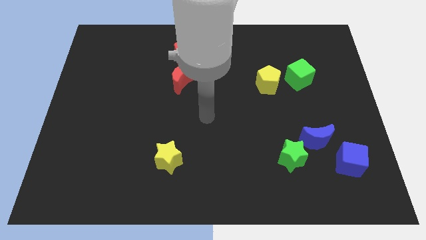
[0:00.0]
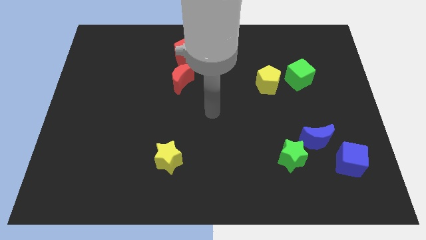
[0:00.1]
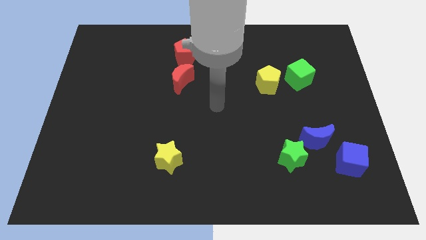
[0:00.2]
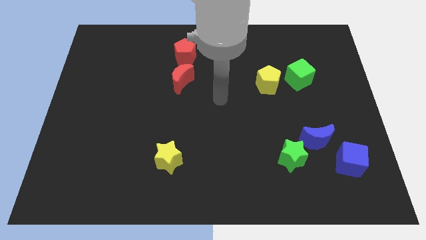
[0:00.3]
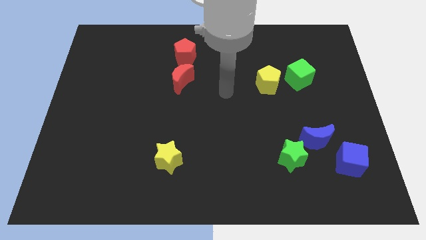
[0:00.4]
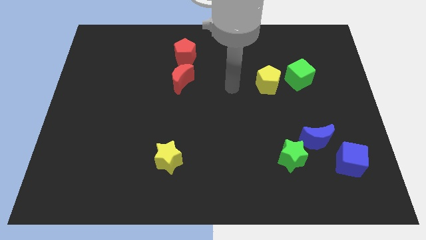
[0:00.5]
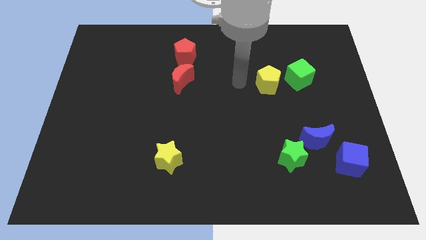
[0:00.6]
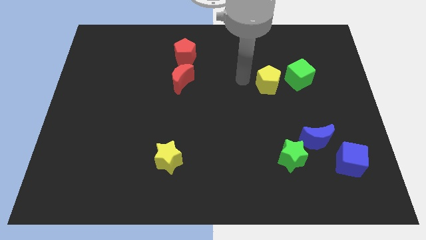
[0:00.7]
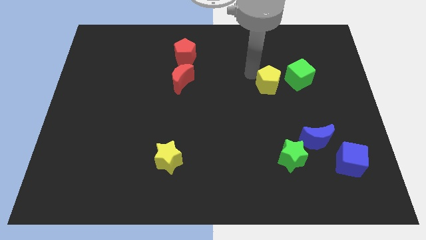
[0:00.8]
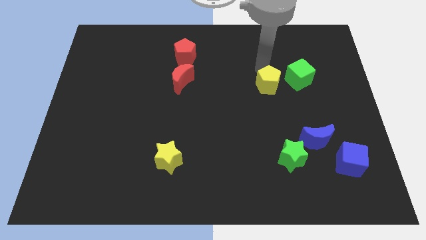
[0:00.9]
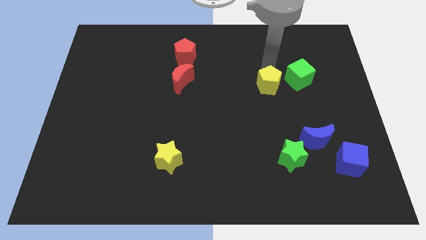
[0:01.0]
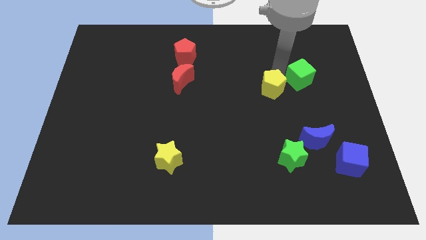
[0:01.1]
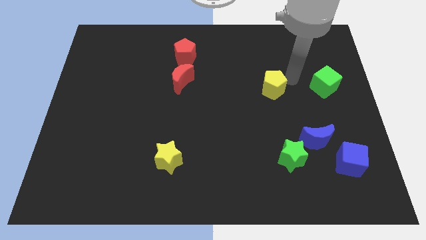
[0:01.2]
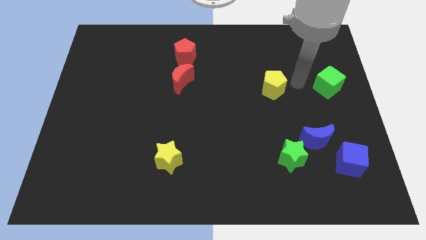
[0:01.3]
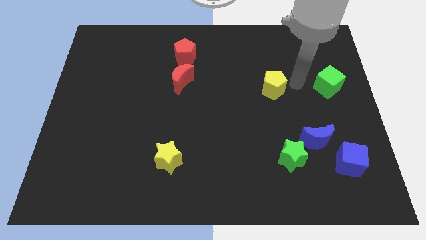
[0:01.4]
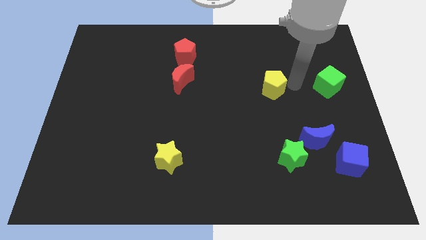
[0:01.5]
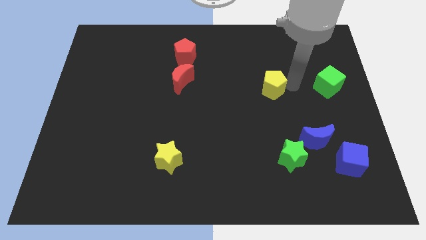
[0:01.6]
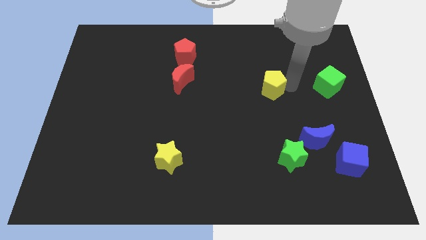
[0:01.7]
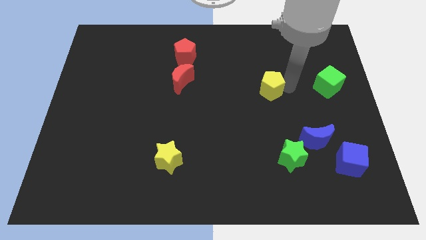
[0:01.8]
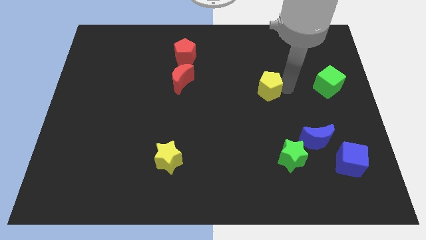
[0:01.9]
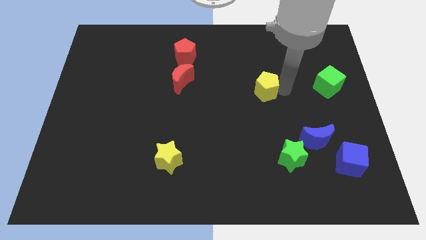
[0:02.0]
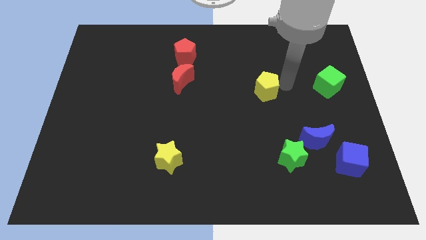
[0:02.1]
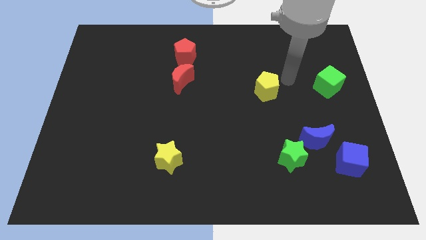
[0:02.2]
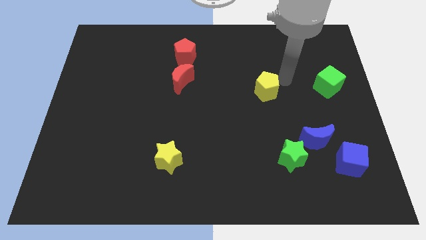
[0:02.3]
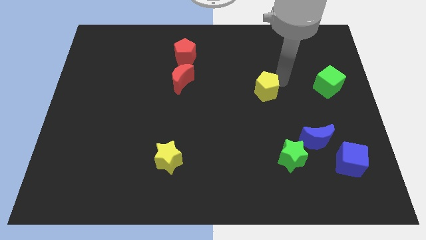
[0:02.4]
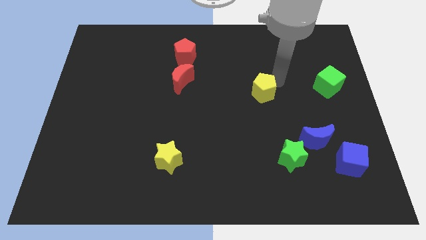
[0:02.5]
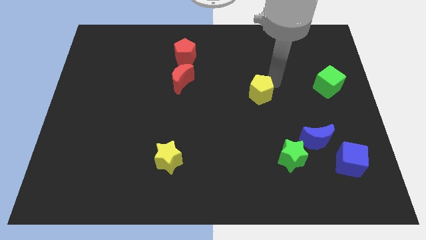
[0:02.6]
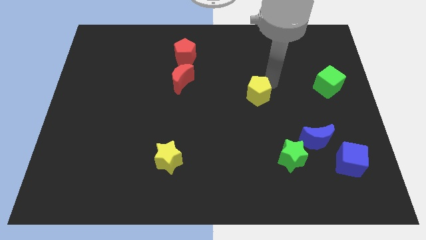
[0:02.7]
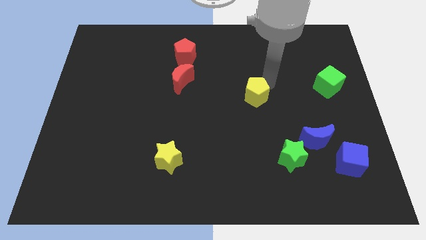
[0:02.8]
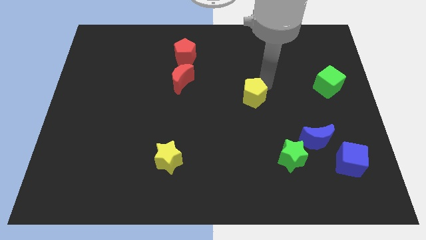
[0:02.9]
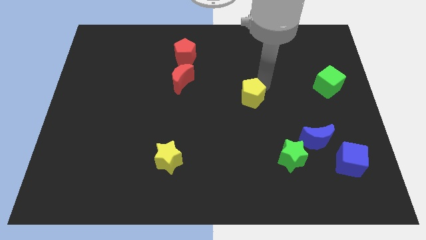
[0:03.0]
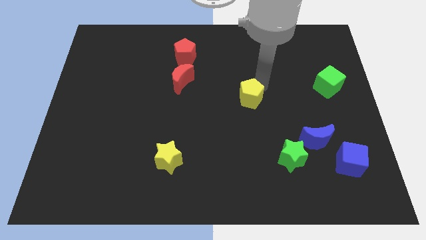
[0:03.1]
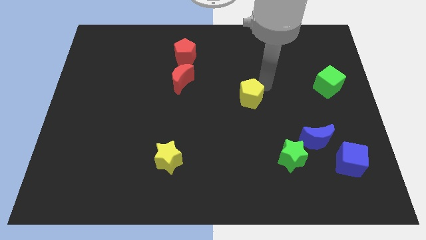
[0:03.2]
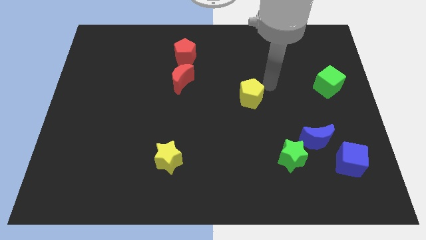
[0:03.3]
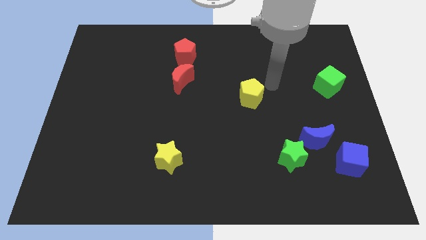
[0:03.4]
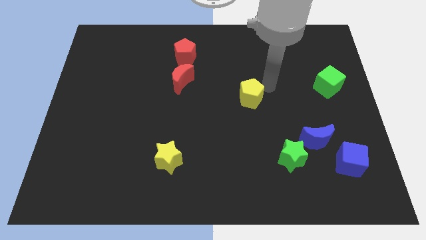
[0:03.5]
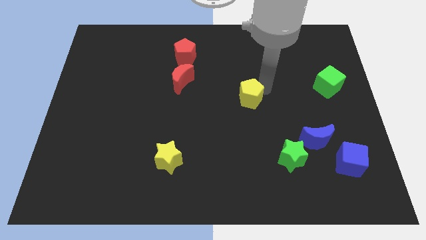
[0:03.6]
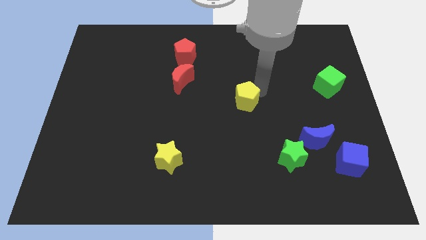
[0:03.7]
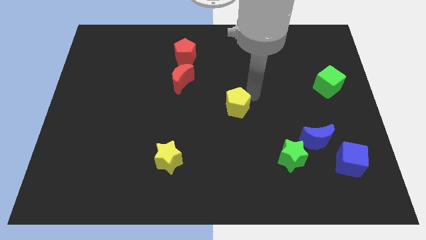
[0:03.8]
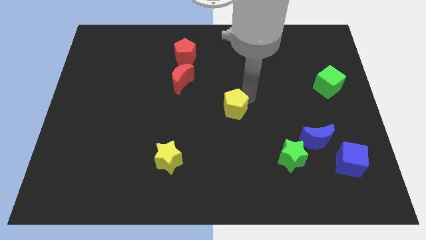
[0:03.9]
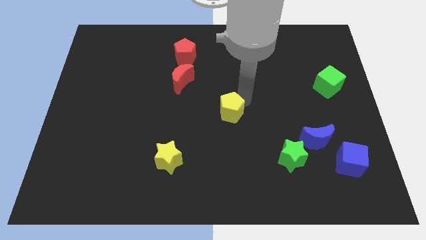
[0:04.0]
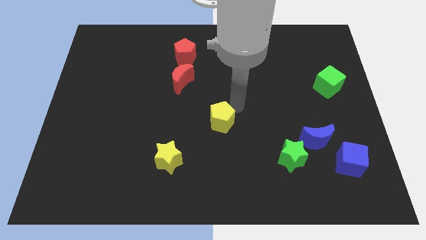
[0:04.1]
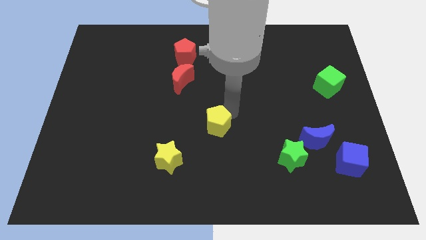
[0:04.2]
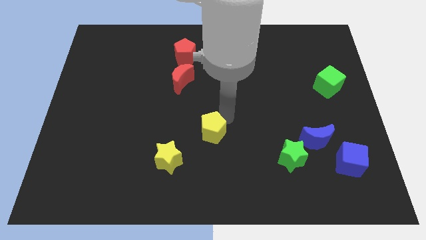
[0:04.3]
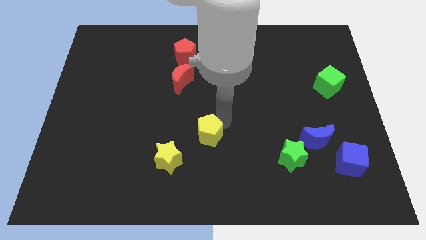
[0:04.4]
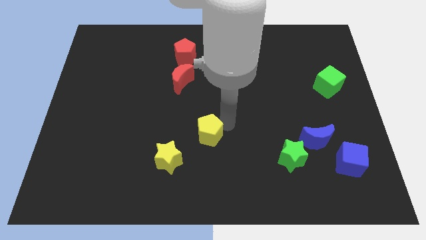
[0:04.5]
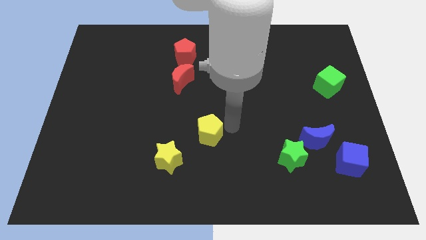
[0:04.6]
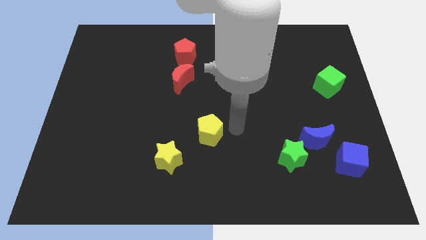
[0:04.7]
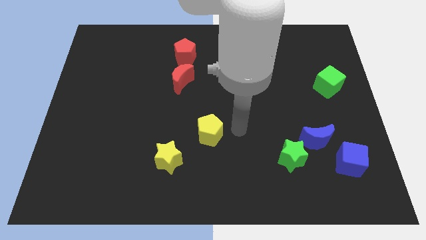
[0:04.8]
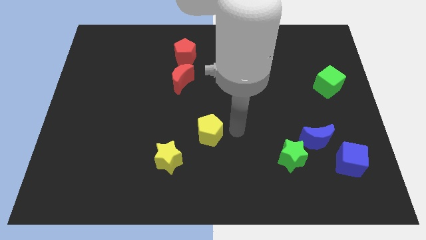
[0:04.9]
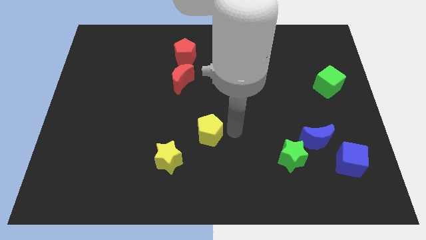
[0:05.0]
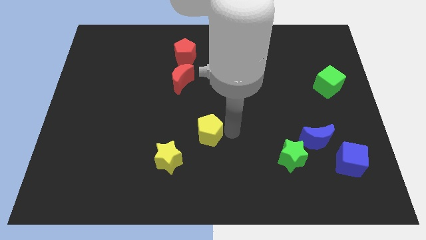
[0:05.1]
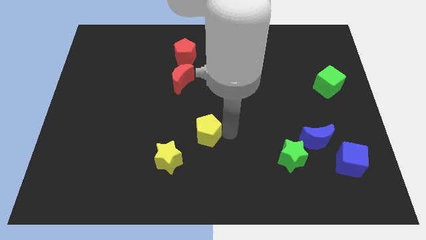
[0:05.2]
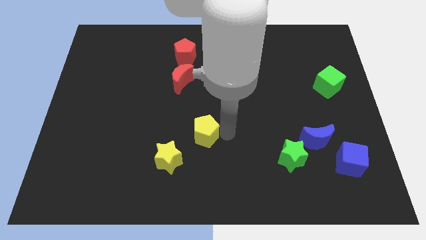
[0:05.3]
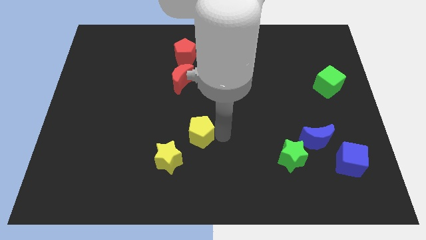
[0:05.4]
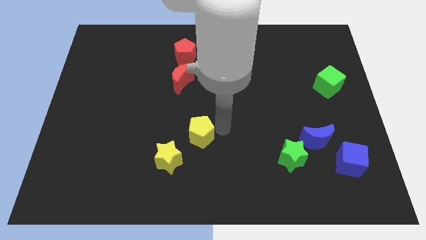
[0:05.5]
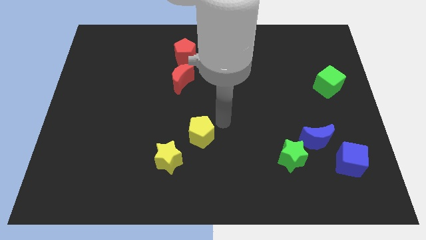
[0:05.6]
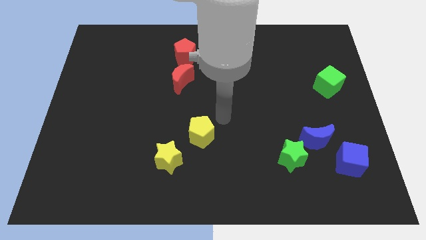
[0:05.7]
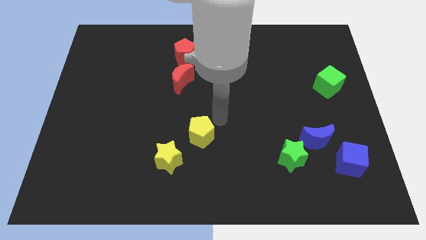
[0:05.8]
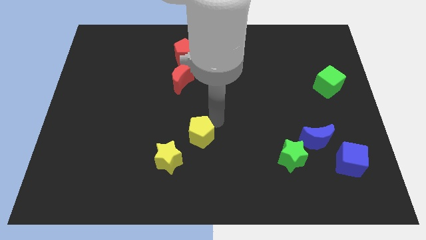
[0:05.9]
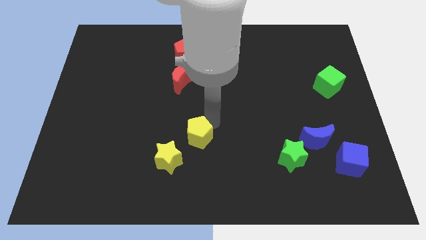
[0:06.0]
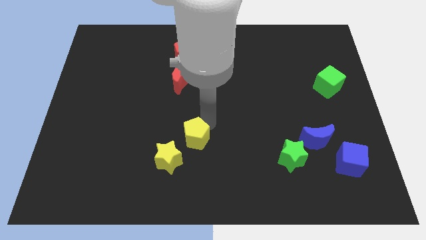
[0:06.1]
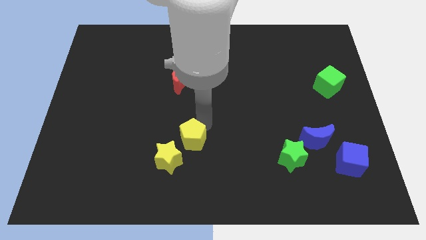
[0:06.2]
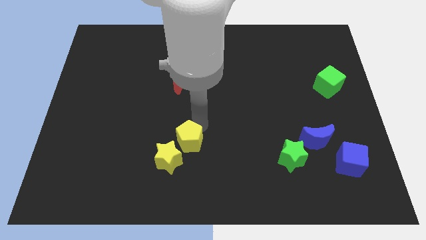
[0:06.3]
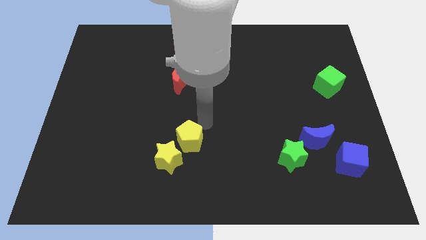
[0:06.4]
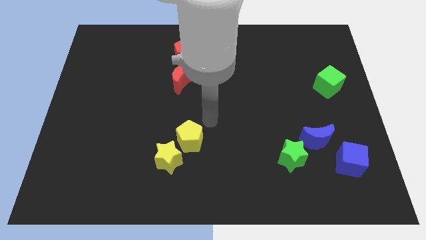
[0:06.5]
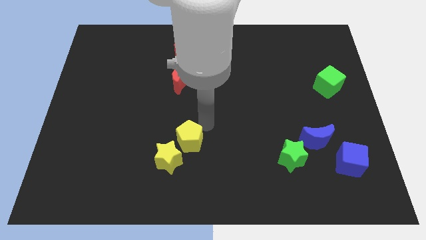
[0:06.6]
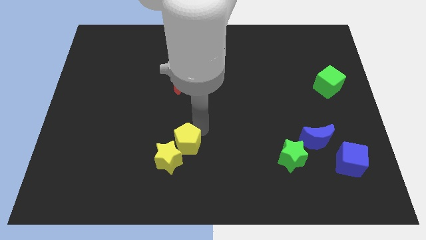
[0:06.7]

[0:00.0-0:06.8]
push the yellow pentagon towards the yellow star
